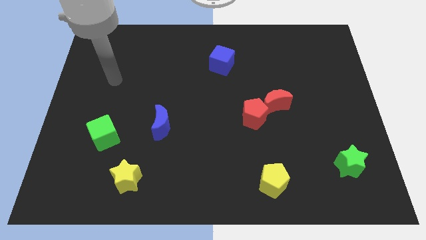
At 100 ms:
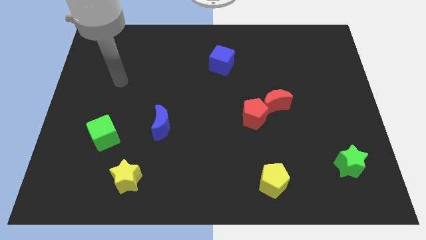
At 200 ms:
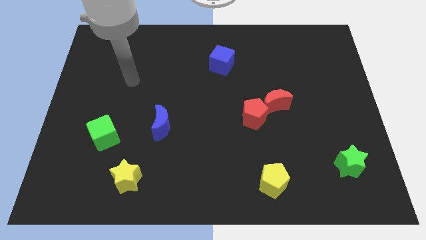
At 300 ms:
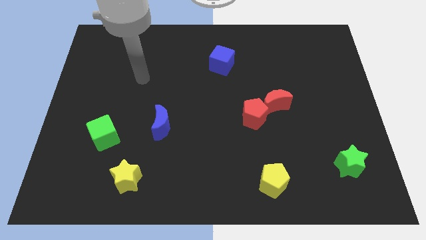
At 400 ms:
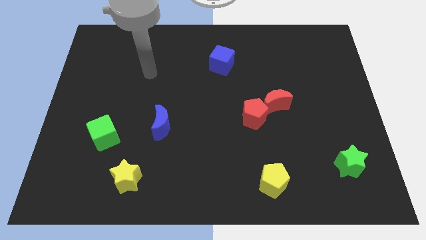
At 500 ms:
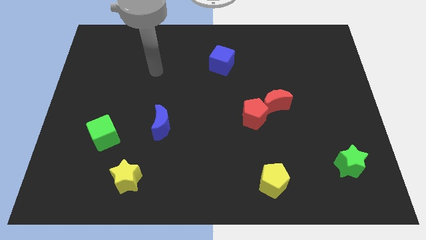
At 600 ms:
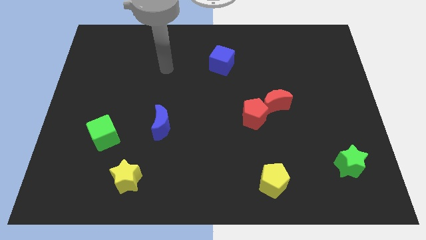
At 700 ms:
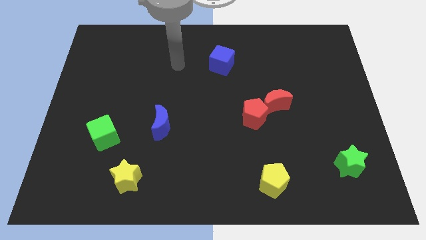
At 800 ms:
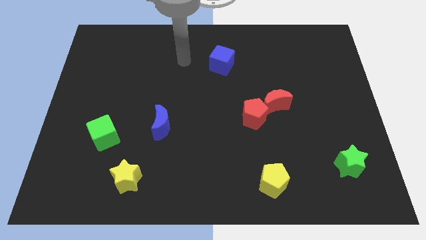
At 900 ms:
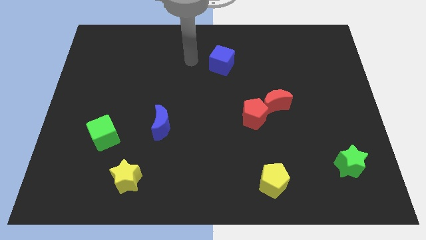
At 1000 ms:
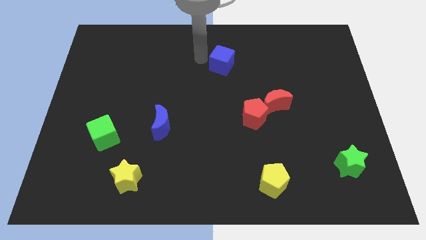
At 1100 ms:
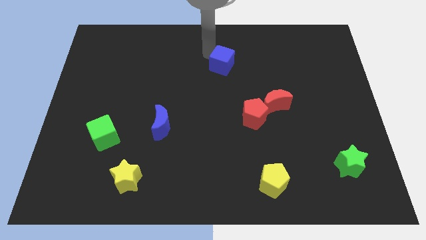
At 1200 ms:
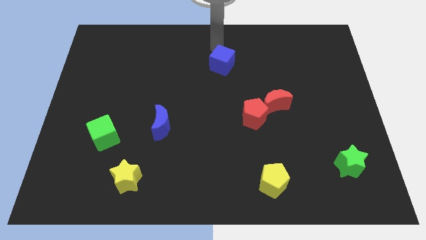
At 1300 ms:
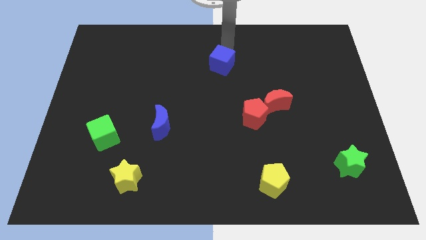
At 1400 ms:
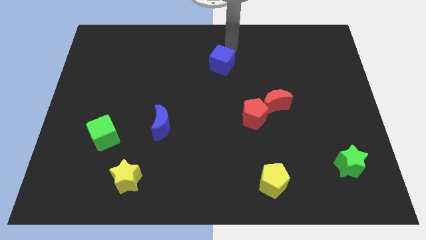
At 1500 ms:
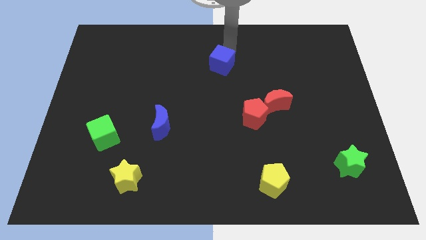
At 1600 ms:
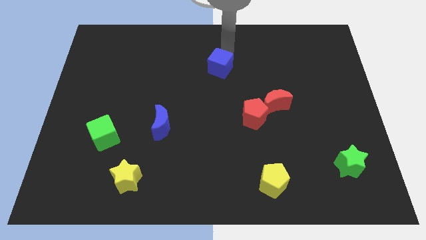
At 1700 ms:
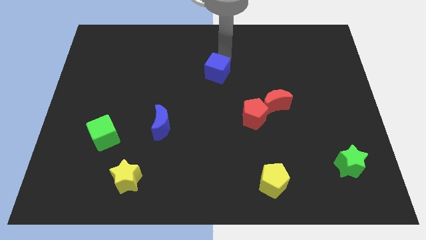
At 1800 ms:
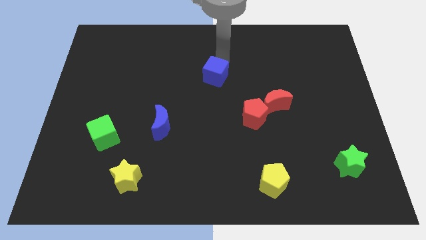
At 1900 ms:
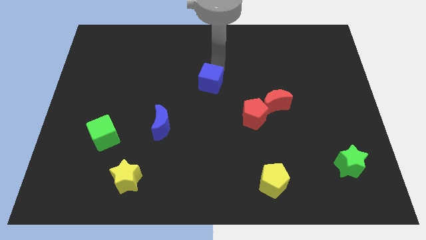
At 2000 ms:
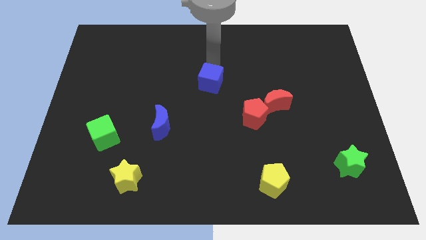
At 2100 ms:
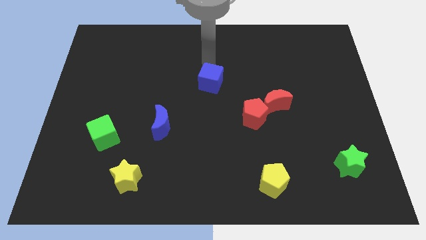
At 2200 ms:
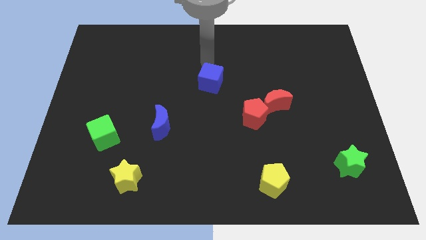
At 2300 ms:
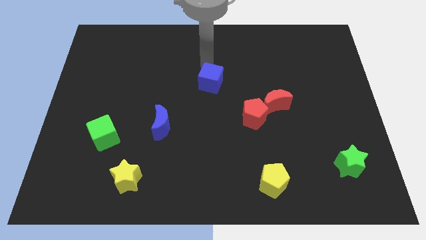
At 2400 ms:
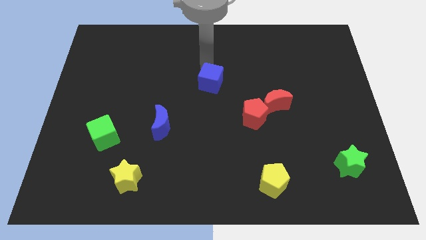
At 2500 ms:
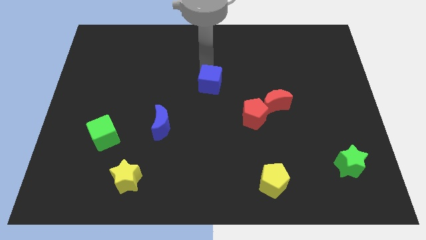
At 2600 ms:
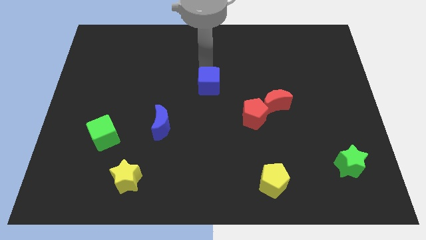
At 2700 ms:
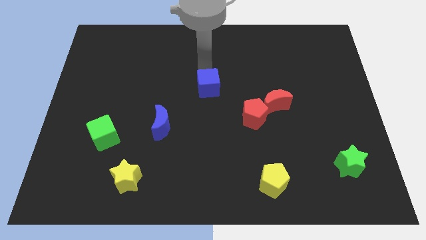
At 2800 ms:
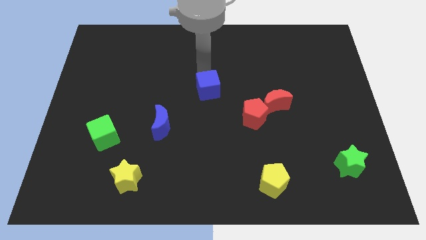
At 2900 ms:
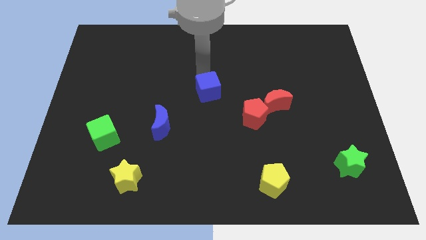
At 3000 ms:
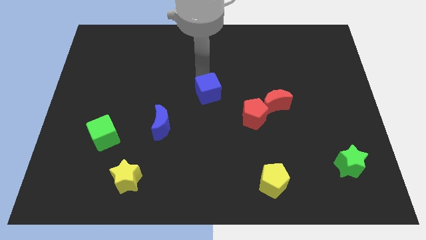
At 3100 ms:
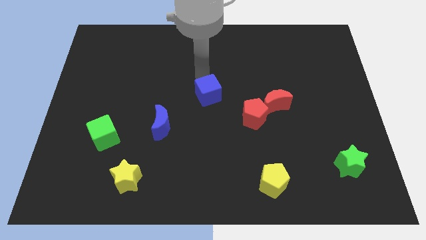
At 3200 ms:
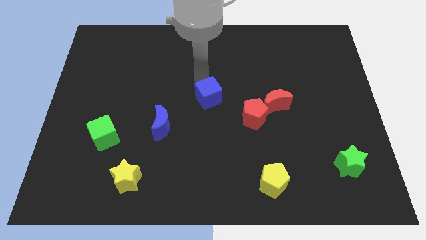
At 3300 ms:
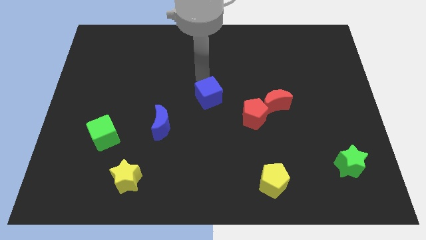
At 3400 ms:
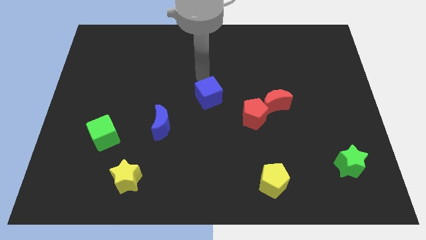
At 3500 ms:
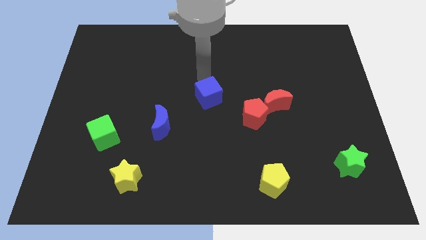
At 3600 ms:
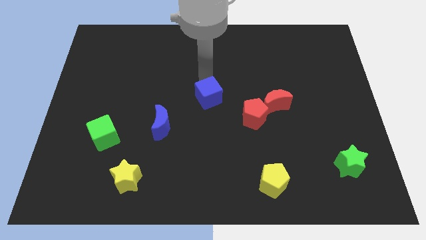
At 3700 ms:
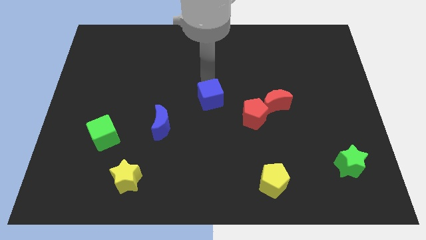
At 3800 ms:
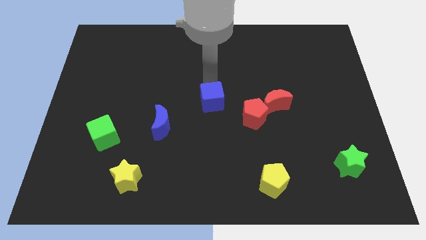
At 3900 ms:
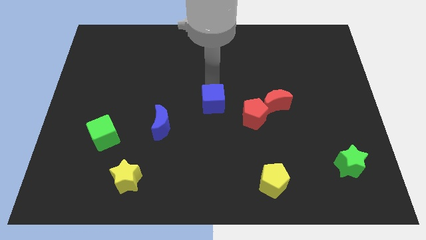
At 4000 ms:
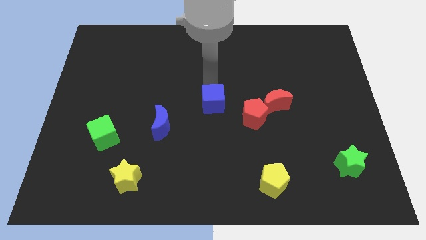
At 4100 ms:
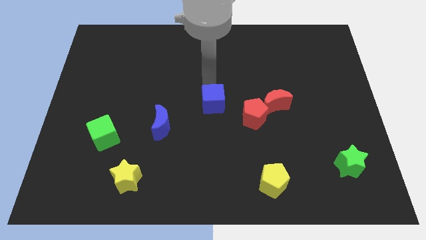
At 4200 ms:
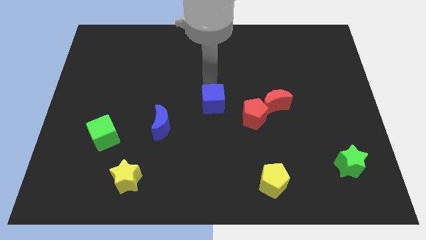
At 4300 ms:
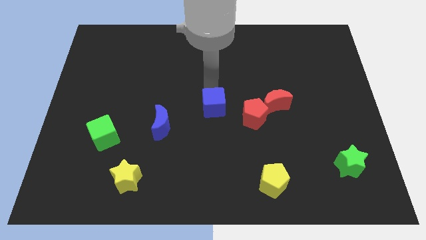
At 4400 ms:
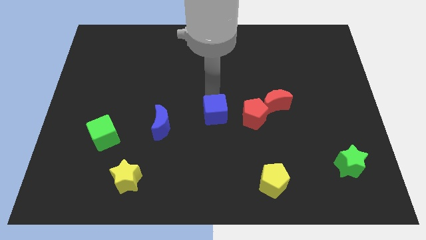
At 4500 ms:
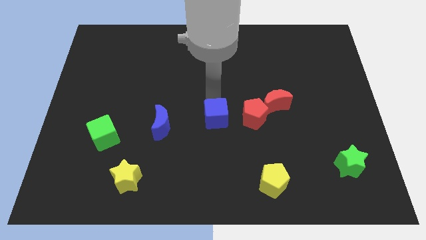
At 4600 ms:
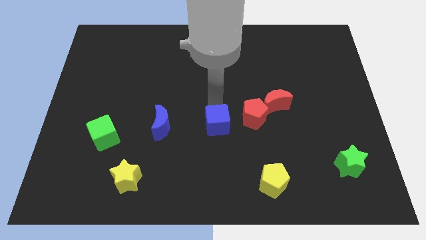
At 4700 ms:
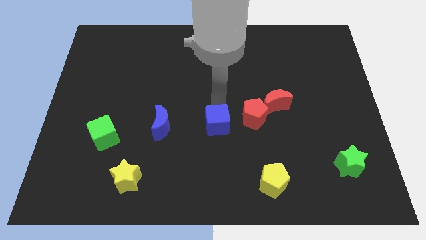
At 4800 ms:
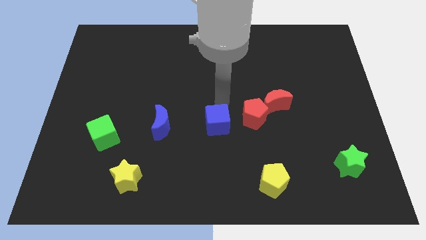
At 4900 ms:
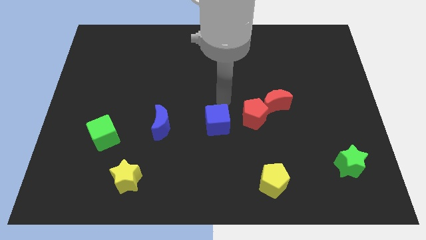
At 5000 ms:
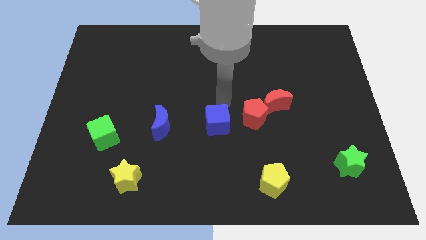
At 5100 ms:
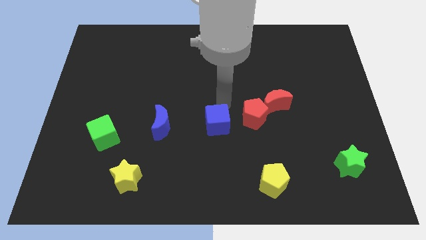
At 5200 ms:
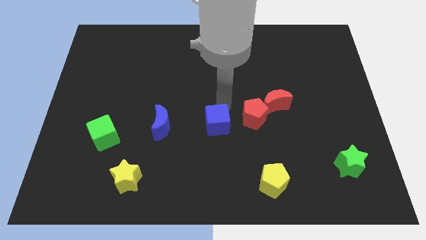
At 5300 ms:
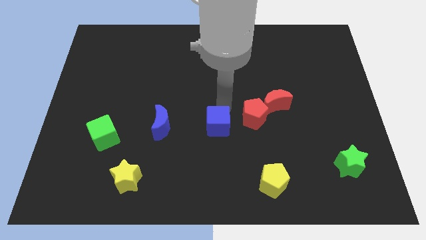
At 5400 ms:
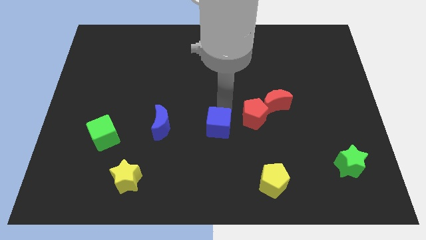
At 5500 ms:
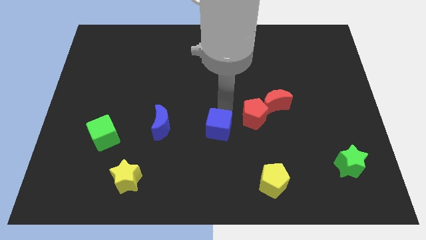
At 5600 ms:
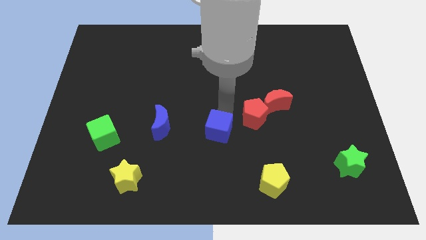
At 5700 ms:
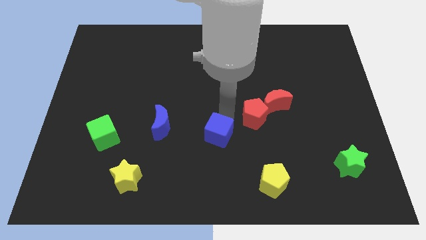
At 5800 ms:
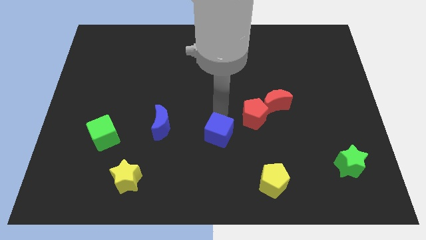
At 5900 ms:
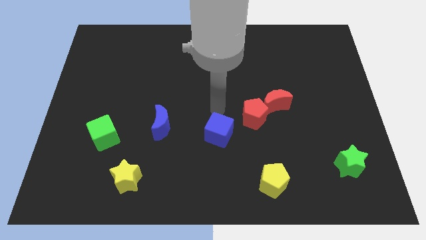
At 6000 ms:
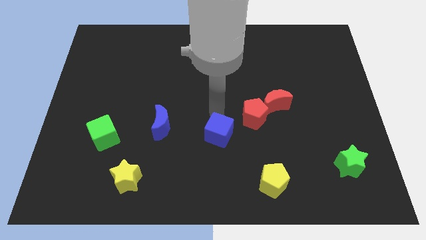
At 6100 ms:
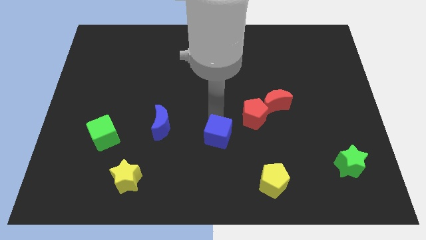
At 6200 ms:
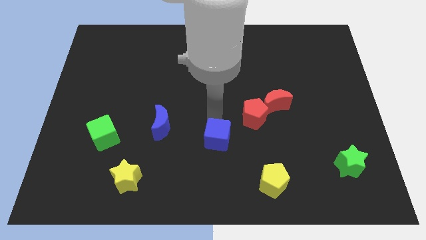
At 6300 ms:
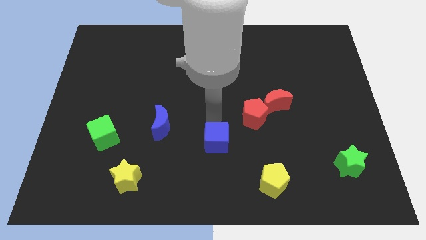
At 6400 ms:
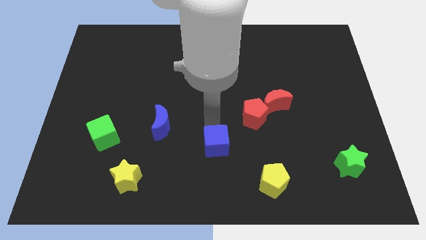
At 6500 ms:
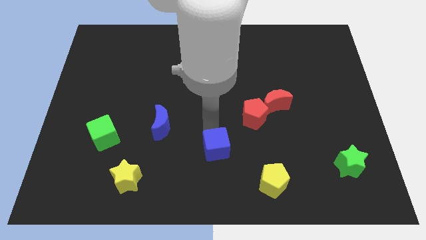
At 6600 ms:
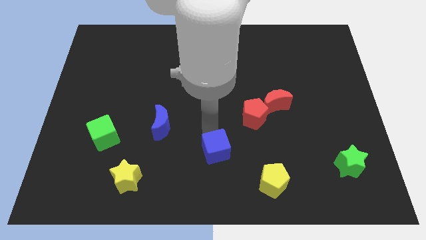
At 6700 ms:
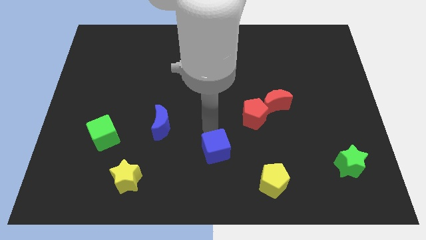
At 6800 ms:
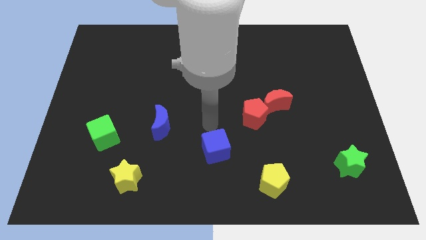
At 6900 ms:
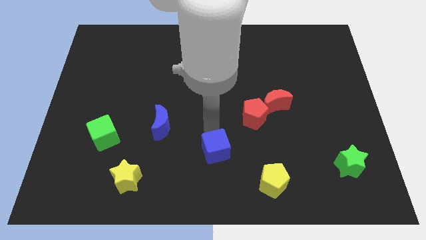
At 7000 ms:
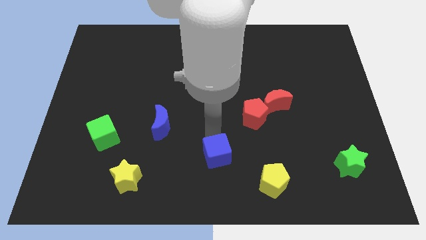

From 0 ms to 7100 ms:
slide the blue cube to the bottom side
